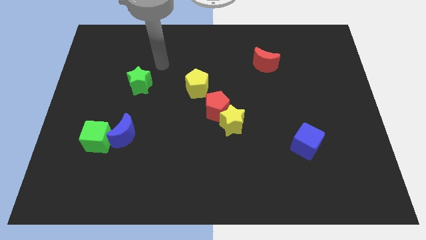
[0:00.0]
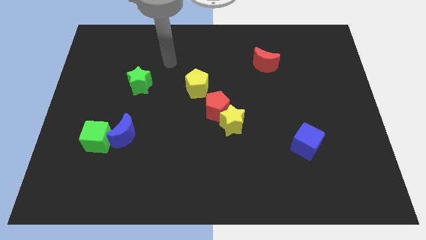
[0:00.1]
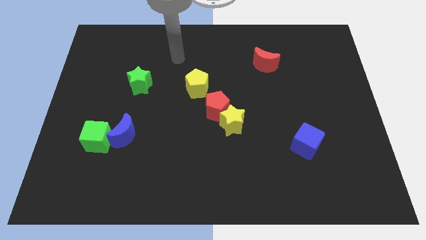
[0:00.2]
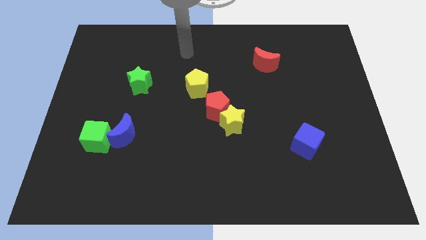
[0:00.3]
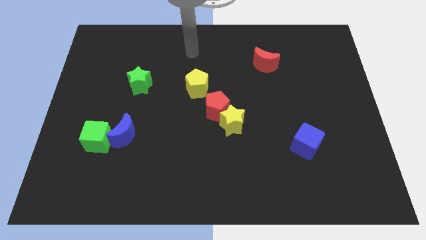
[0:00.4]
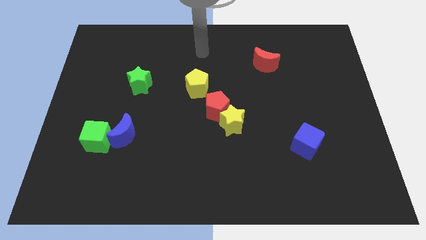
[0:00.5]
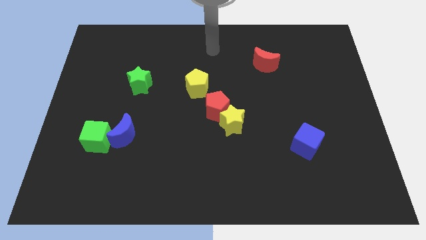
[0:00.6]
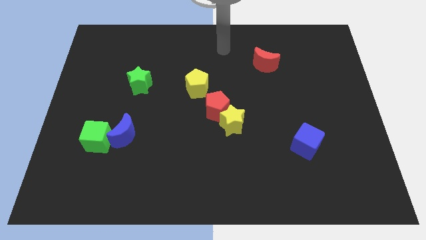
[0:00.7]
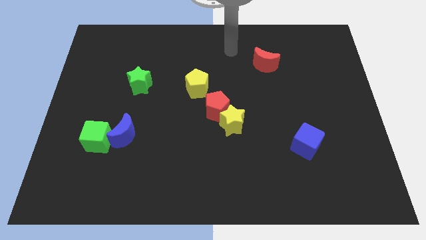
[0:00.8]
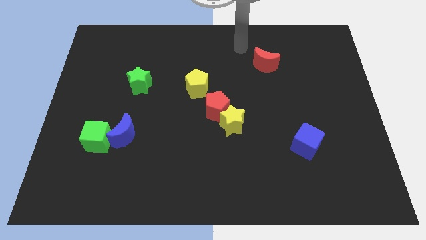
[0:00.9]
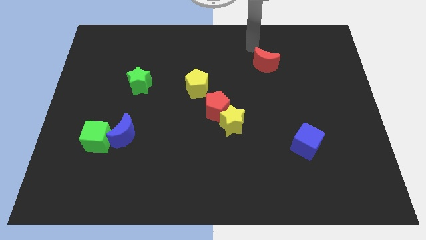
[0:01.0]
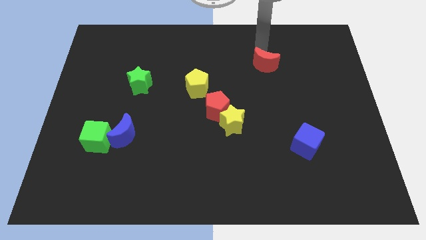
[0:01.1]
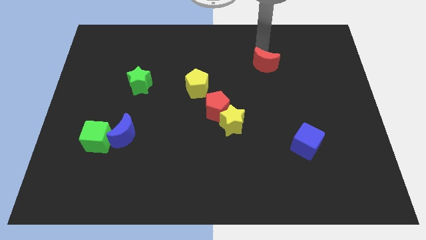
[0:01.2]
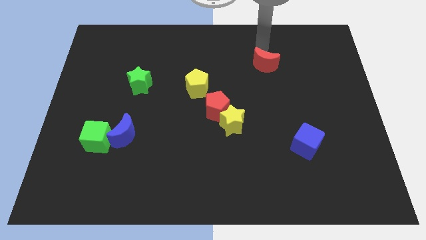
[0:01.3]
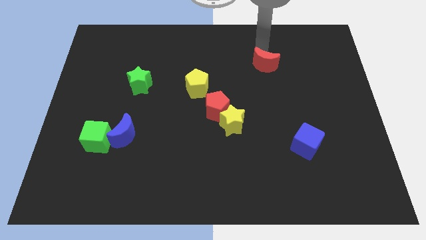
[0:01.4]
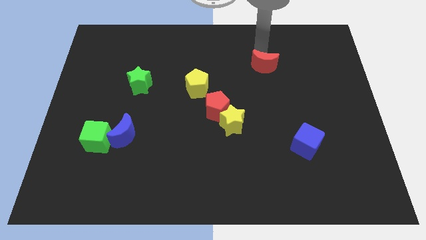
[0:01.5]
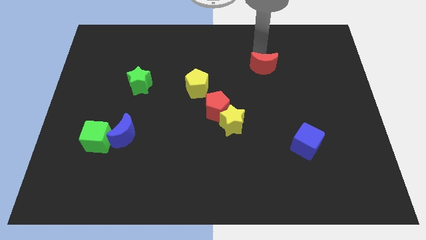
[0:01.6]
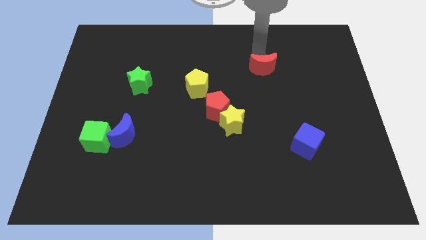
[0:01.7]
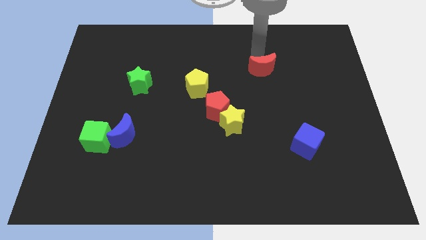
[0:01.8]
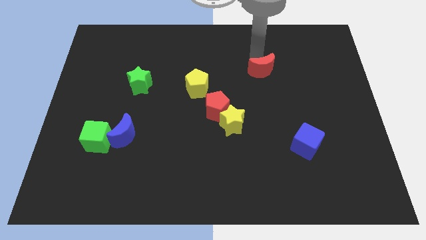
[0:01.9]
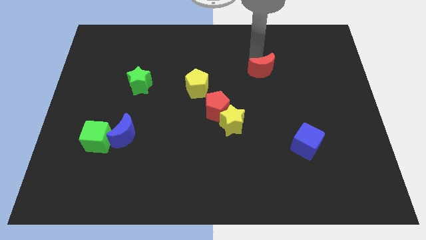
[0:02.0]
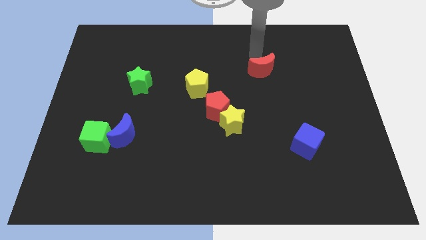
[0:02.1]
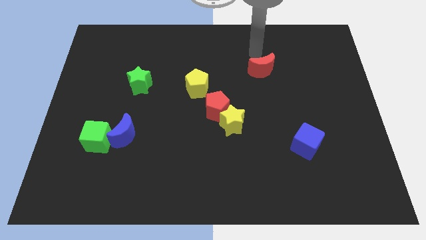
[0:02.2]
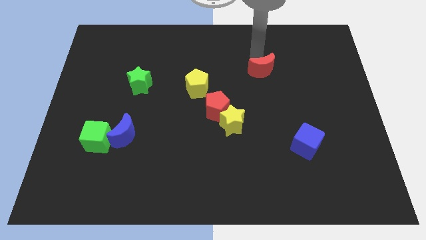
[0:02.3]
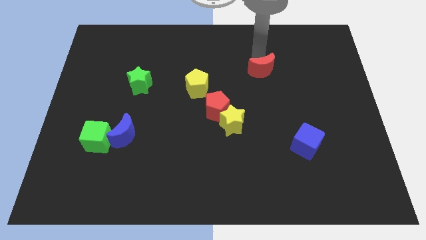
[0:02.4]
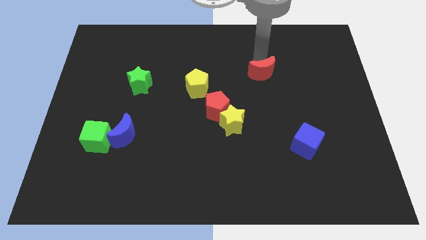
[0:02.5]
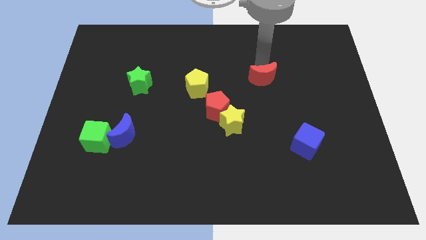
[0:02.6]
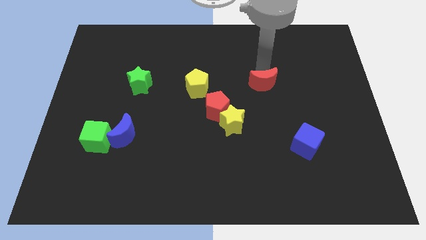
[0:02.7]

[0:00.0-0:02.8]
slide the red moon downwards slightly

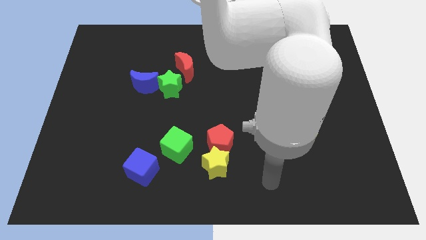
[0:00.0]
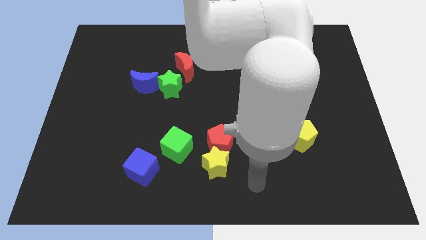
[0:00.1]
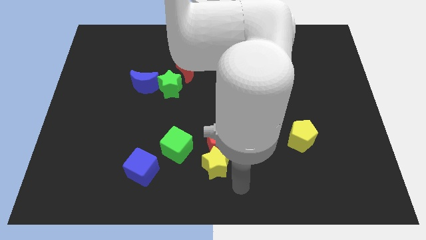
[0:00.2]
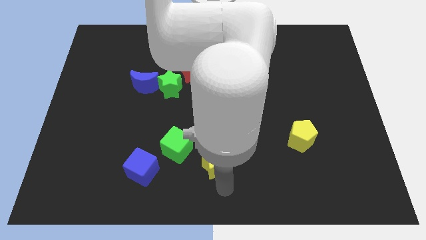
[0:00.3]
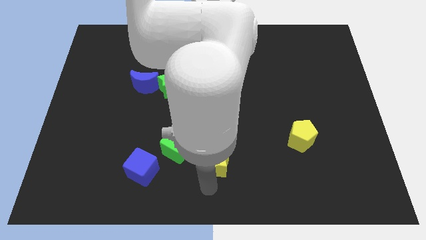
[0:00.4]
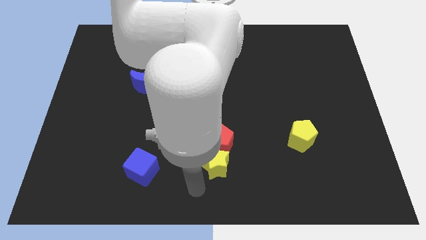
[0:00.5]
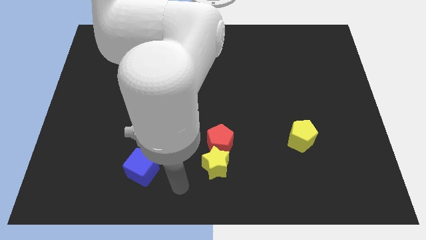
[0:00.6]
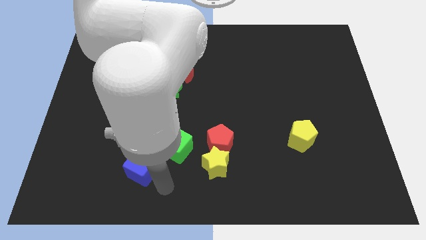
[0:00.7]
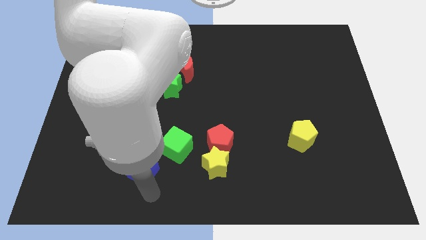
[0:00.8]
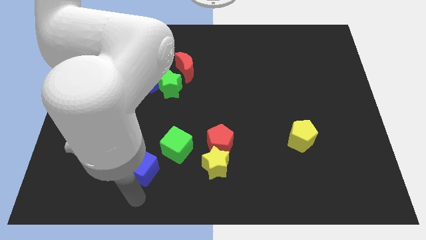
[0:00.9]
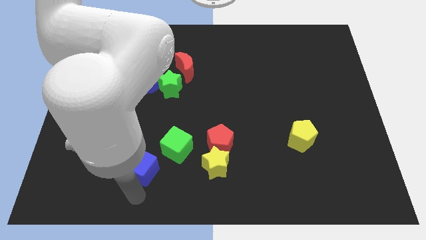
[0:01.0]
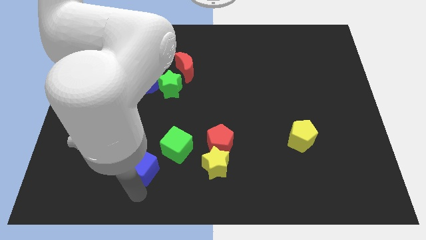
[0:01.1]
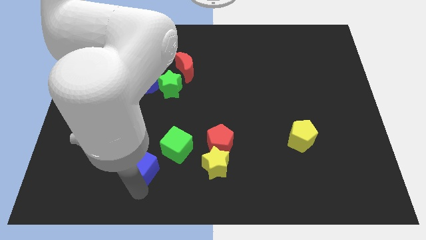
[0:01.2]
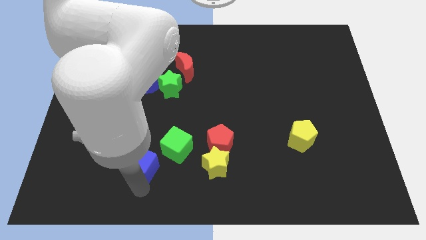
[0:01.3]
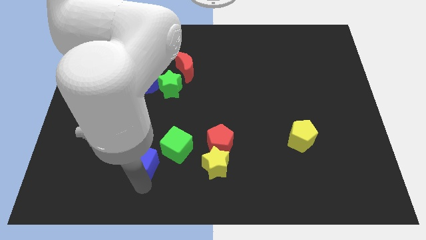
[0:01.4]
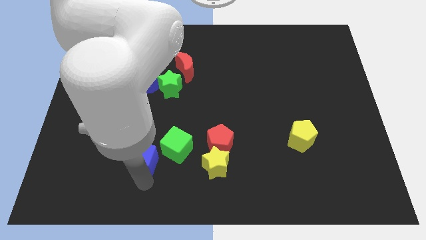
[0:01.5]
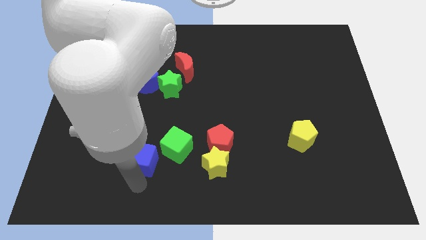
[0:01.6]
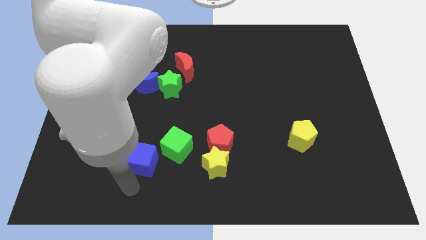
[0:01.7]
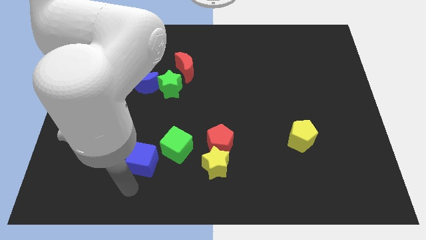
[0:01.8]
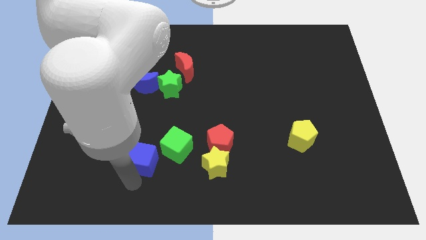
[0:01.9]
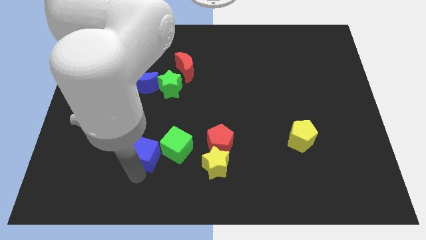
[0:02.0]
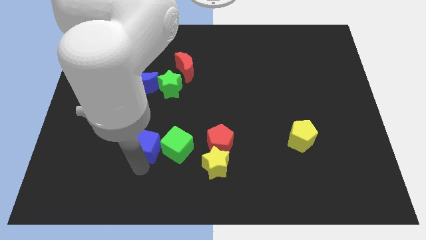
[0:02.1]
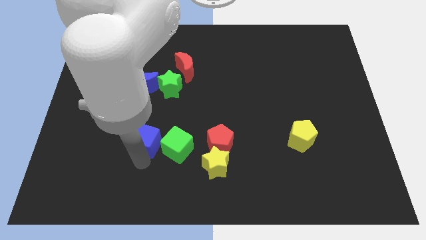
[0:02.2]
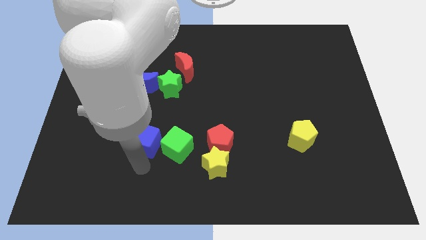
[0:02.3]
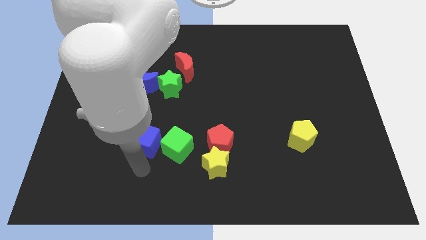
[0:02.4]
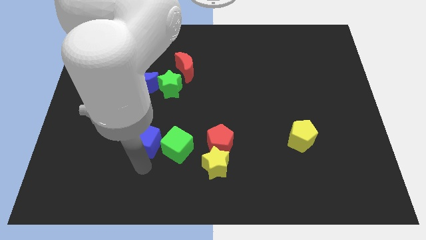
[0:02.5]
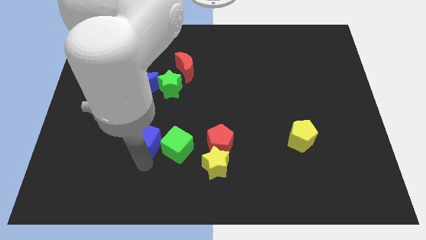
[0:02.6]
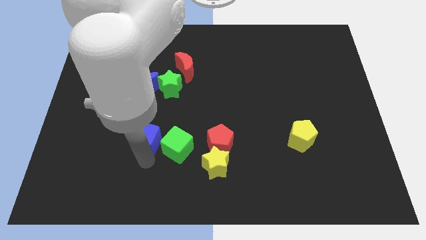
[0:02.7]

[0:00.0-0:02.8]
move the blue cube upwards slightly

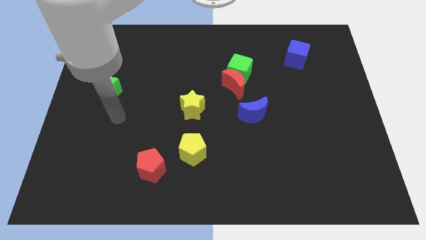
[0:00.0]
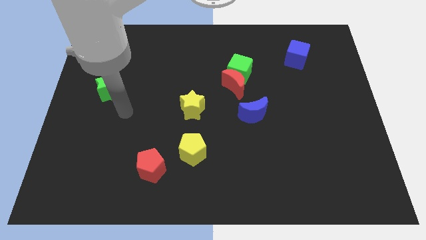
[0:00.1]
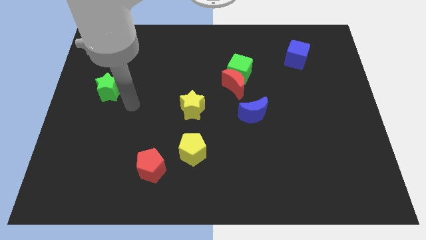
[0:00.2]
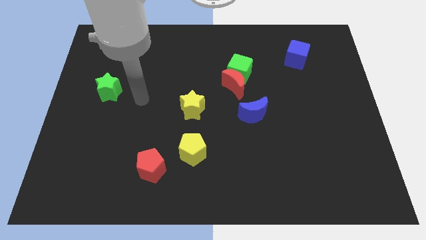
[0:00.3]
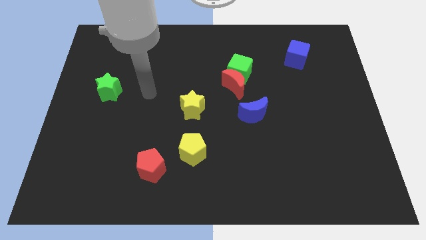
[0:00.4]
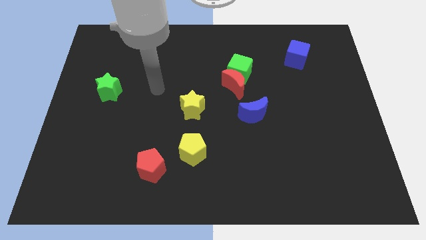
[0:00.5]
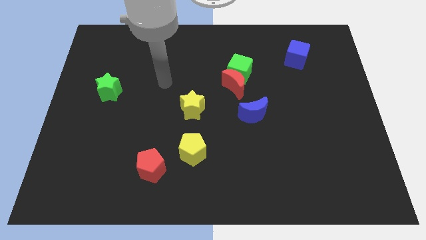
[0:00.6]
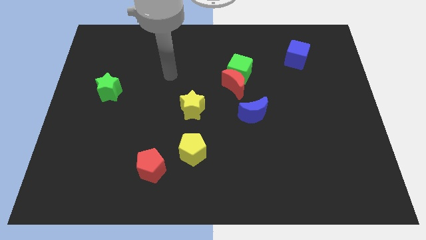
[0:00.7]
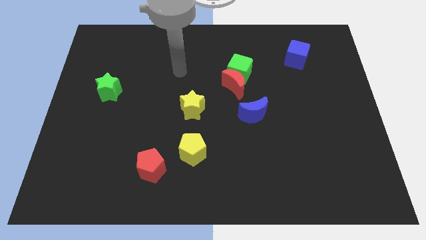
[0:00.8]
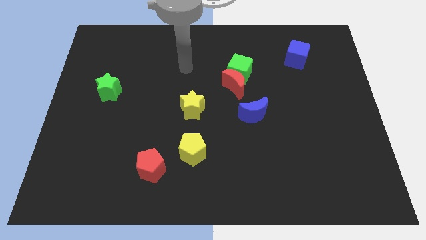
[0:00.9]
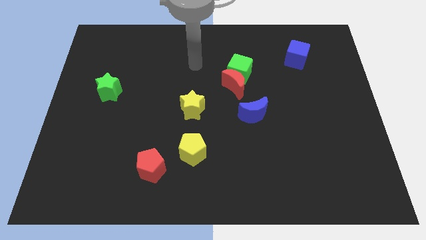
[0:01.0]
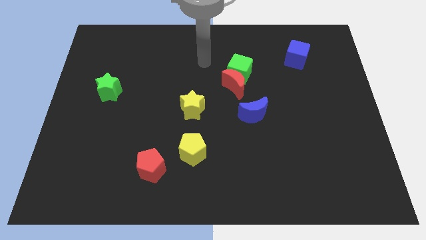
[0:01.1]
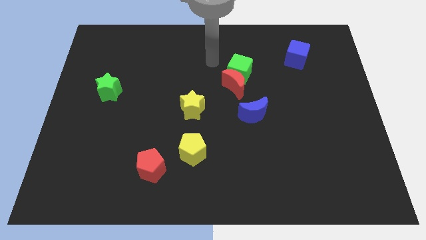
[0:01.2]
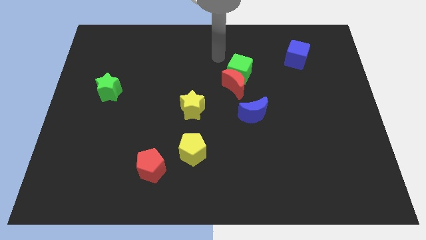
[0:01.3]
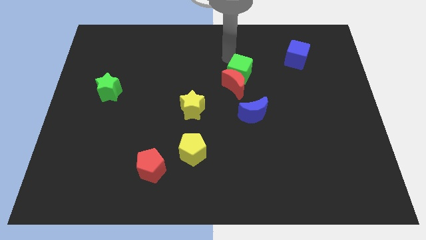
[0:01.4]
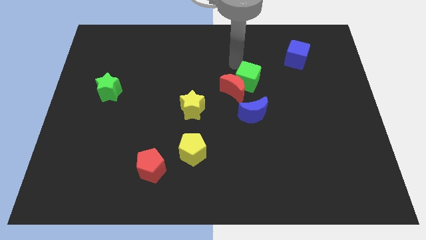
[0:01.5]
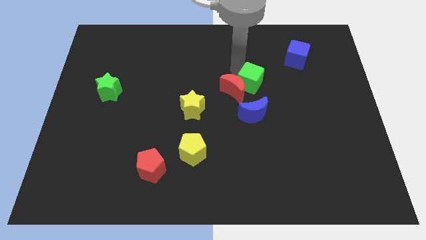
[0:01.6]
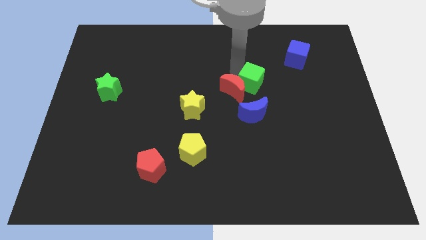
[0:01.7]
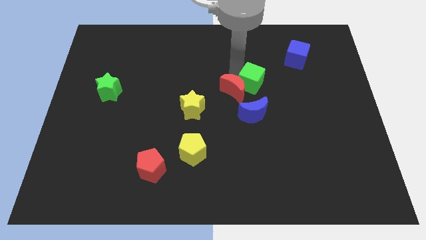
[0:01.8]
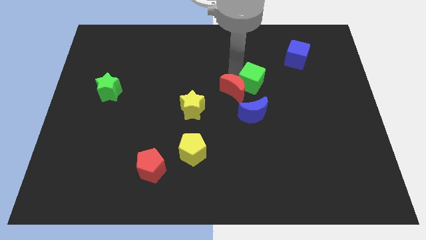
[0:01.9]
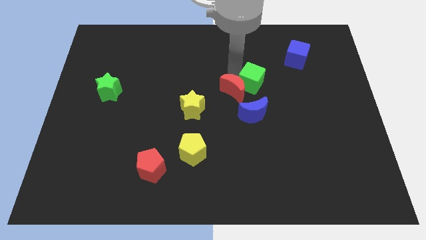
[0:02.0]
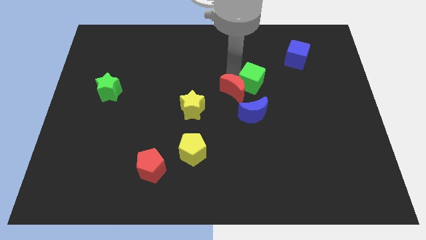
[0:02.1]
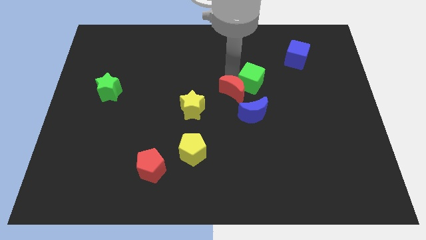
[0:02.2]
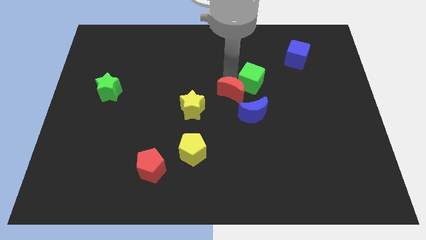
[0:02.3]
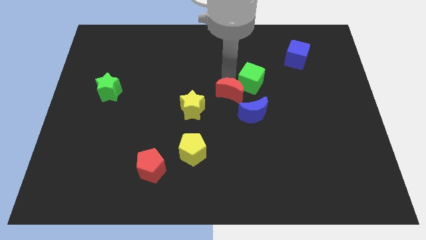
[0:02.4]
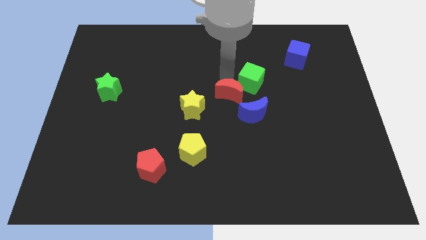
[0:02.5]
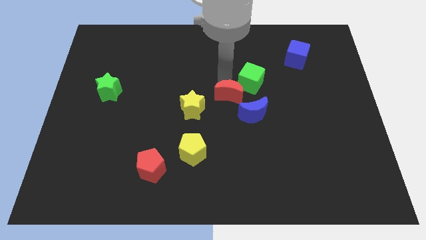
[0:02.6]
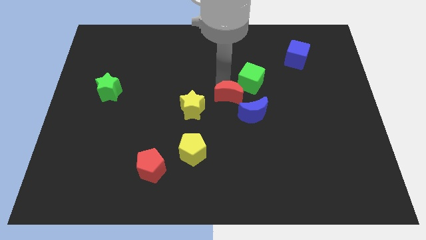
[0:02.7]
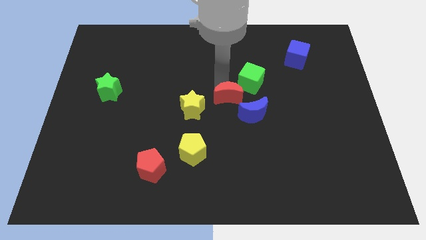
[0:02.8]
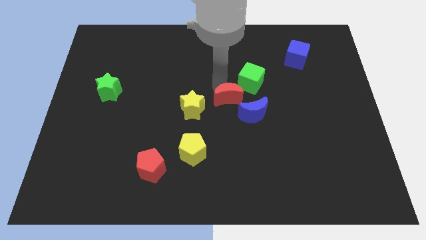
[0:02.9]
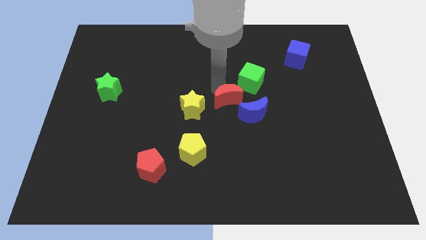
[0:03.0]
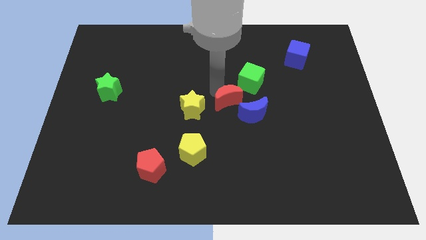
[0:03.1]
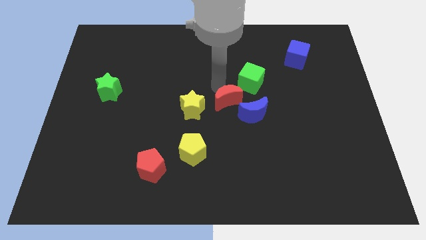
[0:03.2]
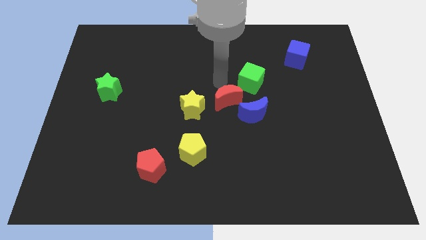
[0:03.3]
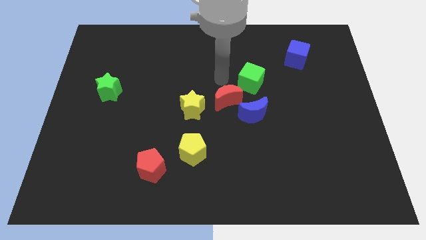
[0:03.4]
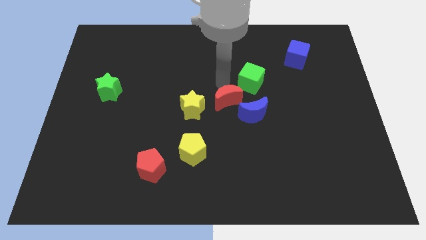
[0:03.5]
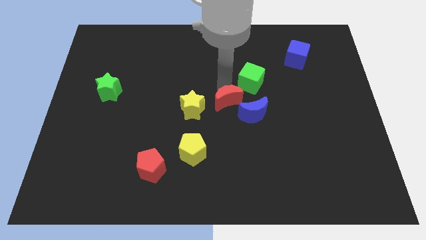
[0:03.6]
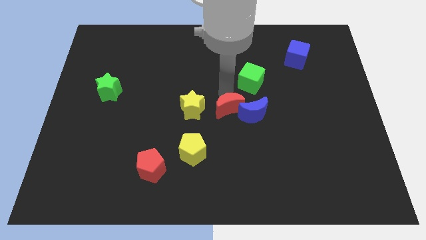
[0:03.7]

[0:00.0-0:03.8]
push the red moon downwards somewhat
